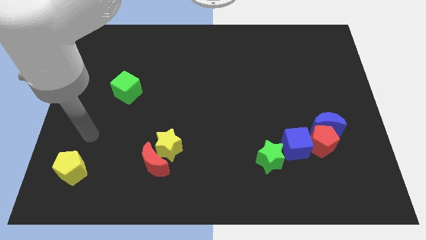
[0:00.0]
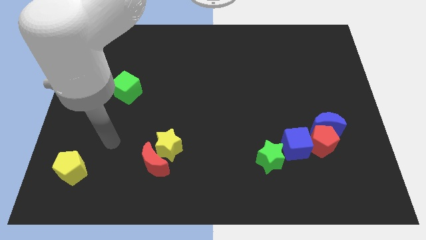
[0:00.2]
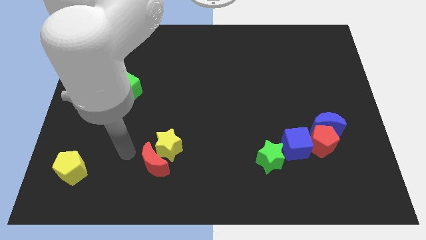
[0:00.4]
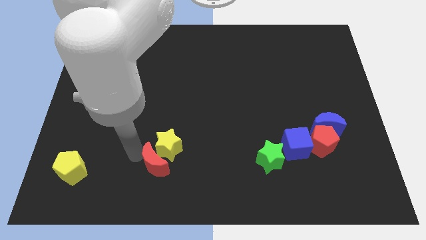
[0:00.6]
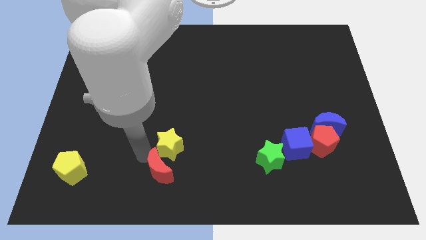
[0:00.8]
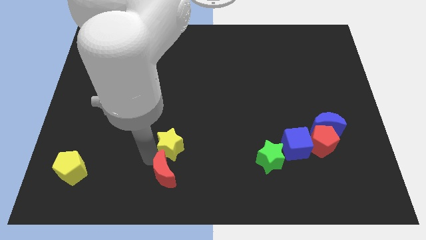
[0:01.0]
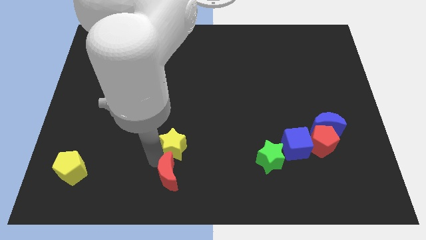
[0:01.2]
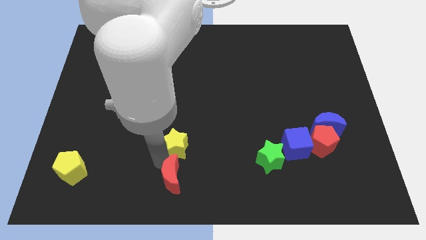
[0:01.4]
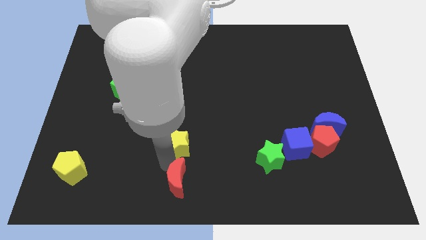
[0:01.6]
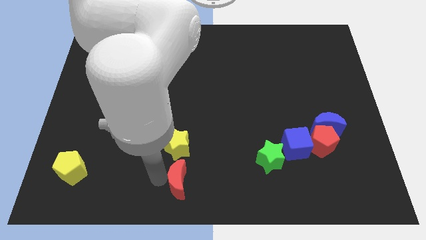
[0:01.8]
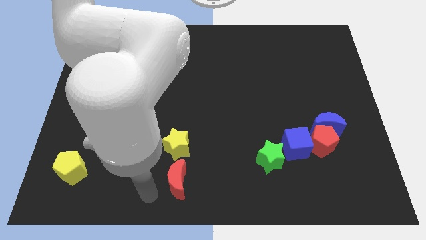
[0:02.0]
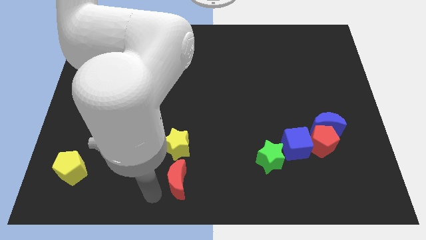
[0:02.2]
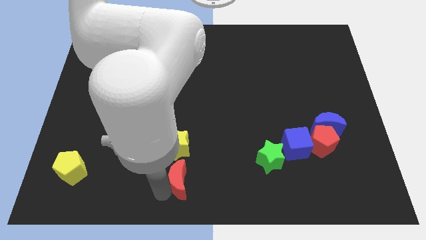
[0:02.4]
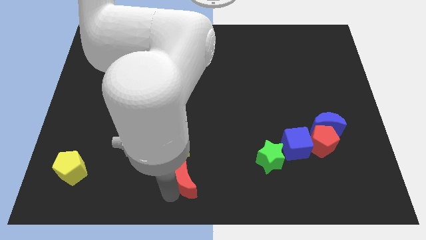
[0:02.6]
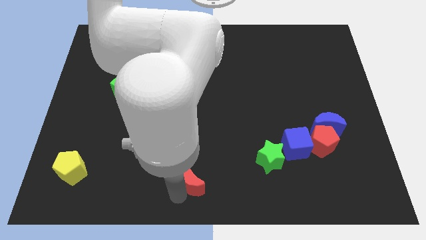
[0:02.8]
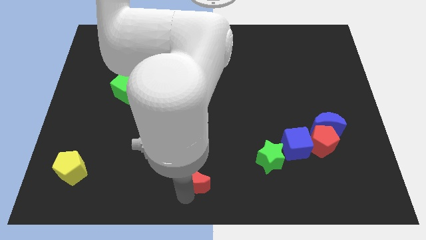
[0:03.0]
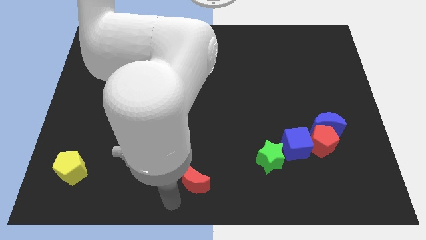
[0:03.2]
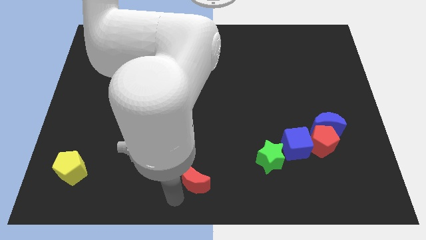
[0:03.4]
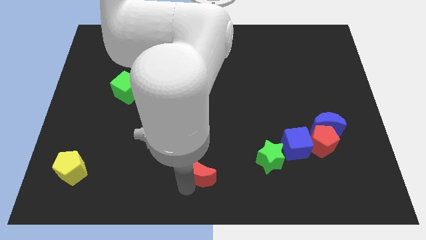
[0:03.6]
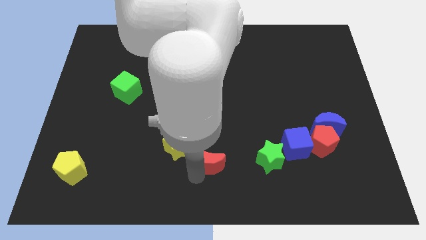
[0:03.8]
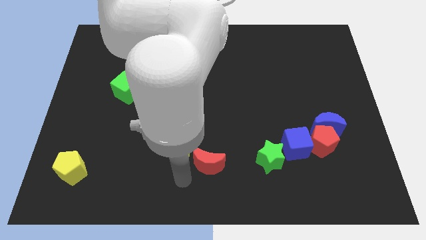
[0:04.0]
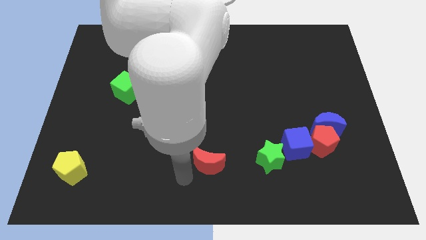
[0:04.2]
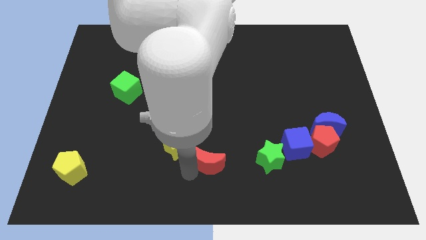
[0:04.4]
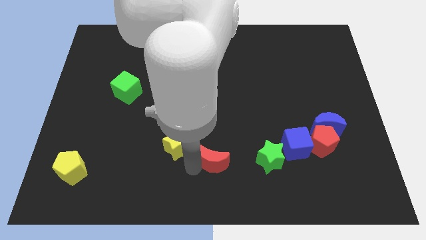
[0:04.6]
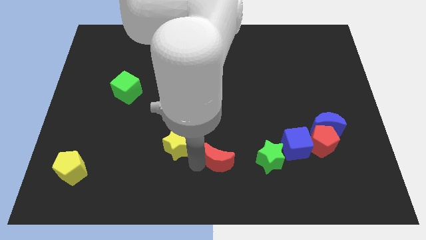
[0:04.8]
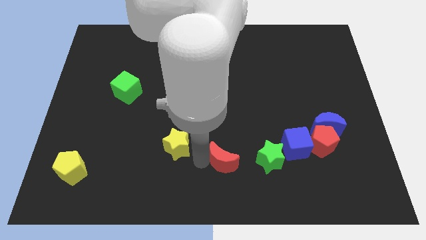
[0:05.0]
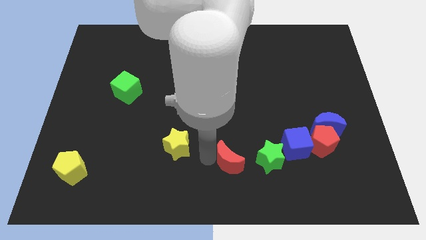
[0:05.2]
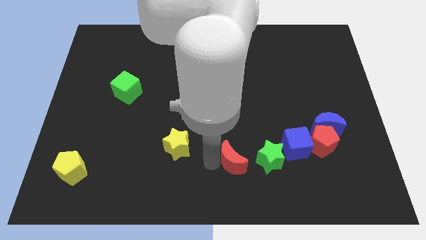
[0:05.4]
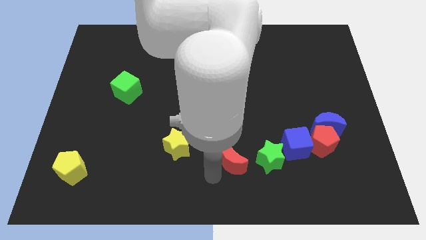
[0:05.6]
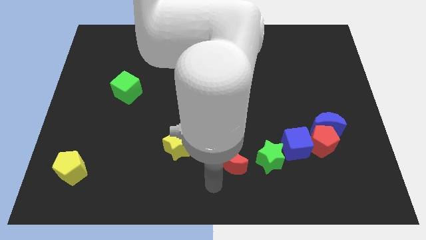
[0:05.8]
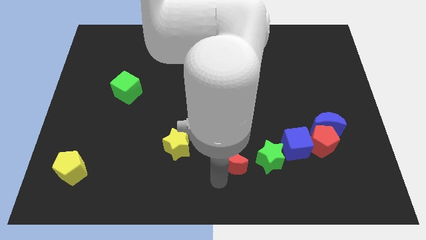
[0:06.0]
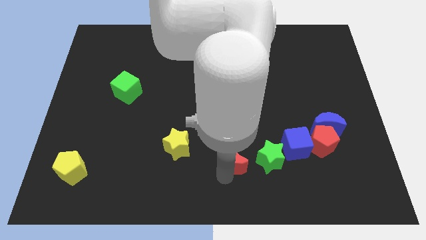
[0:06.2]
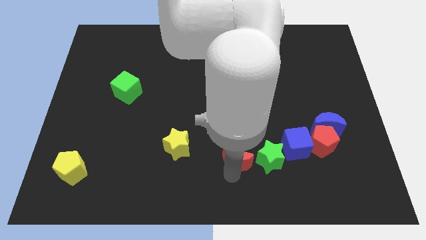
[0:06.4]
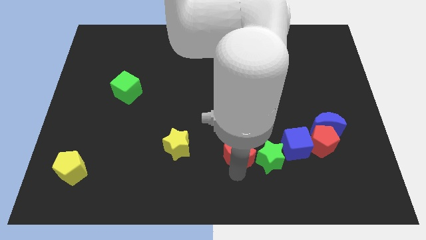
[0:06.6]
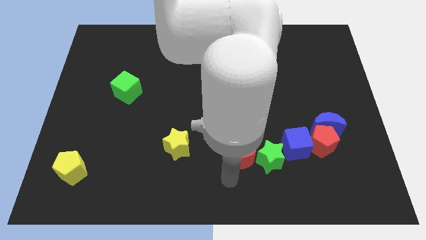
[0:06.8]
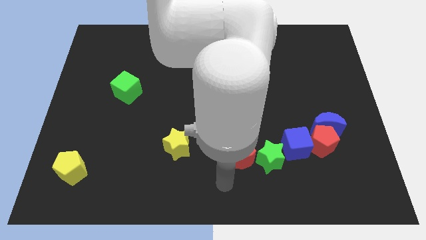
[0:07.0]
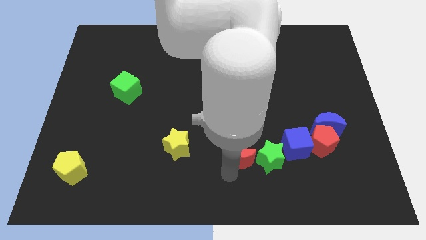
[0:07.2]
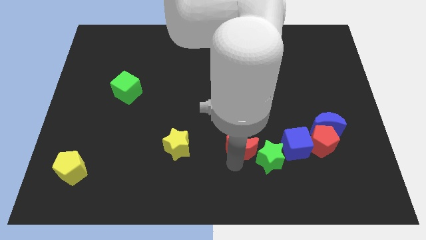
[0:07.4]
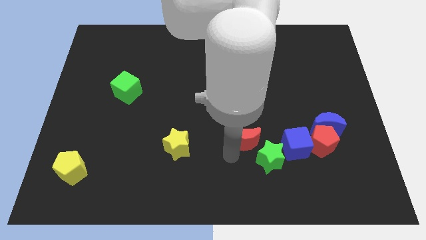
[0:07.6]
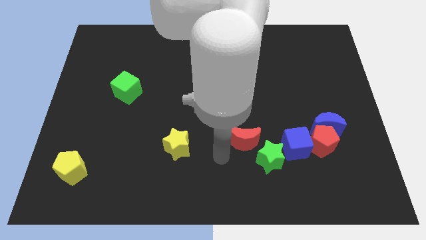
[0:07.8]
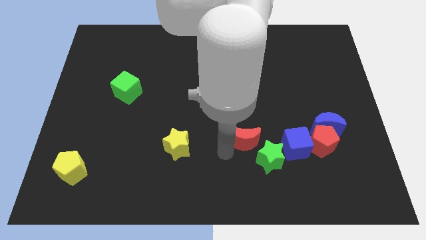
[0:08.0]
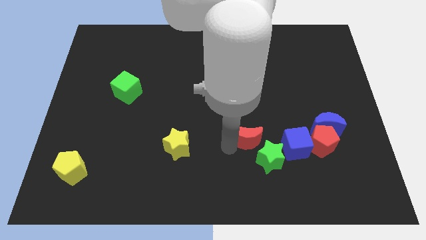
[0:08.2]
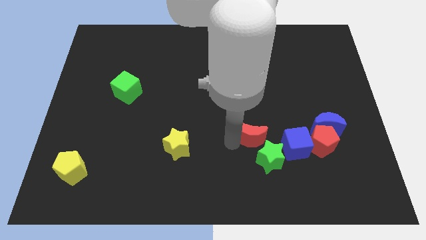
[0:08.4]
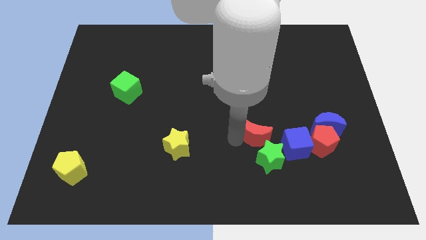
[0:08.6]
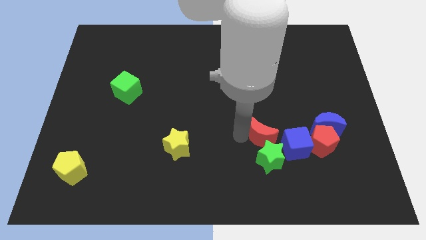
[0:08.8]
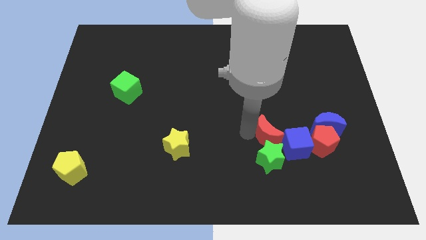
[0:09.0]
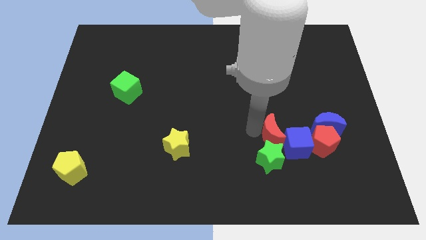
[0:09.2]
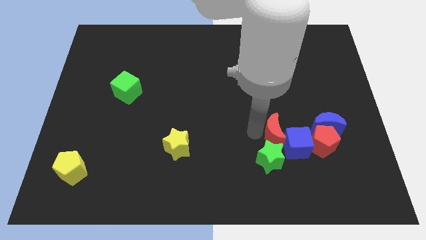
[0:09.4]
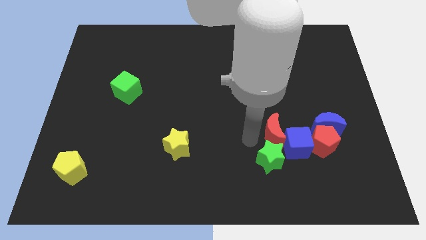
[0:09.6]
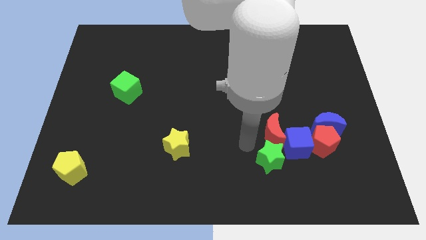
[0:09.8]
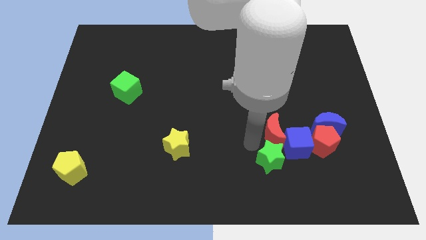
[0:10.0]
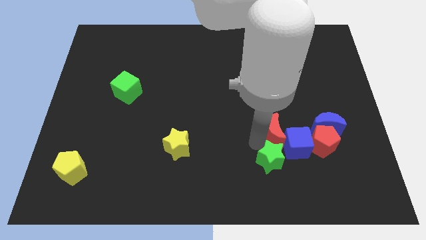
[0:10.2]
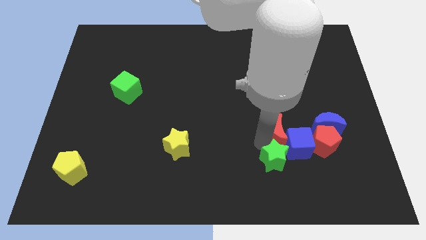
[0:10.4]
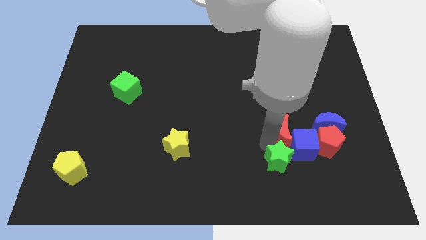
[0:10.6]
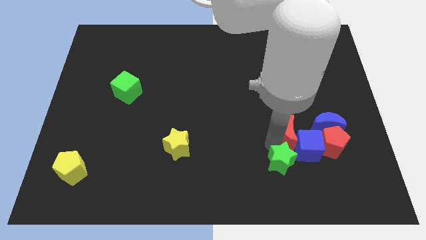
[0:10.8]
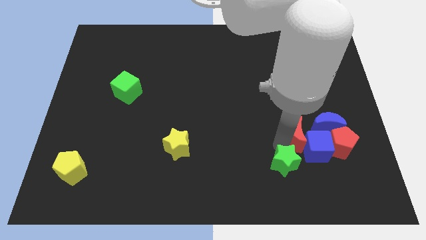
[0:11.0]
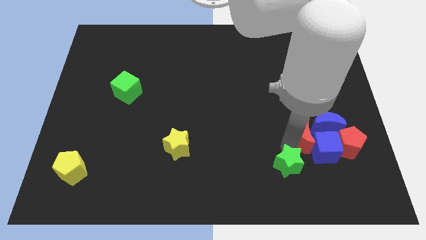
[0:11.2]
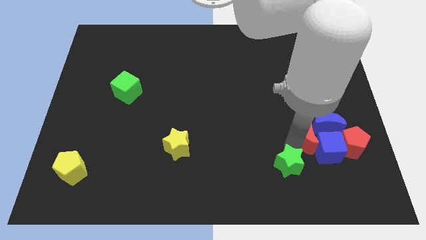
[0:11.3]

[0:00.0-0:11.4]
put the red moon next to the blue moon

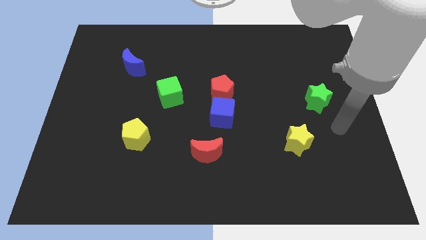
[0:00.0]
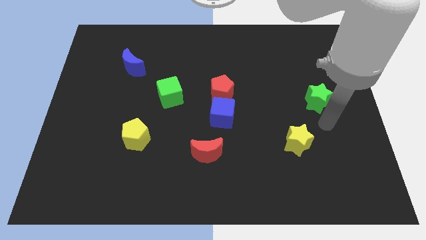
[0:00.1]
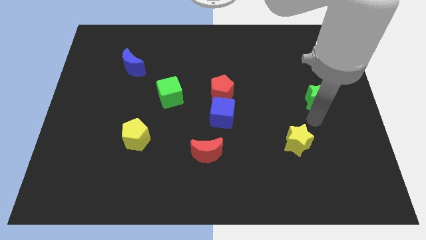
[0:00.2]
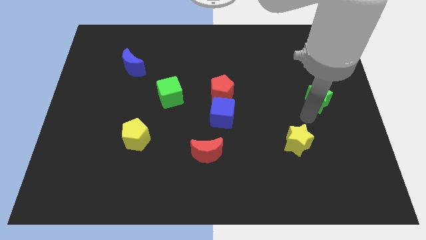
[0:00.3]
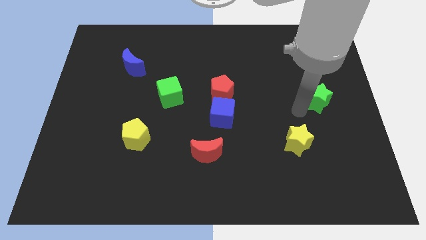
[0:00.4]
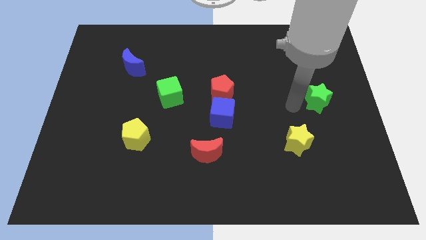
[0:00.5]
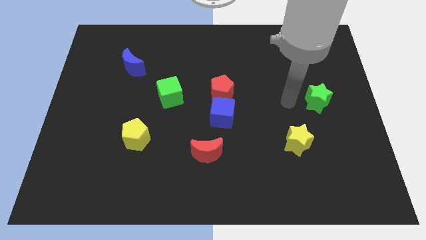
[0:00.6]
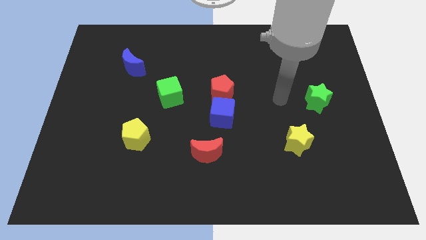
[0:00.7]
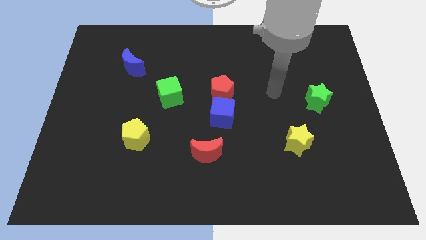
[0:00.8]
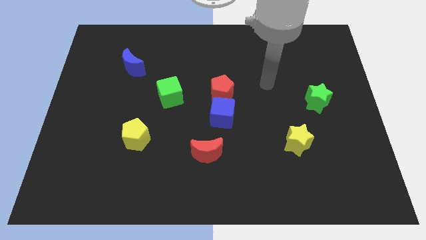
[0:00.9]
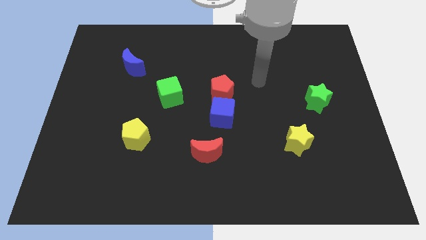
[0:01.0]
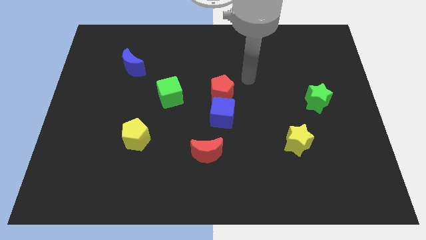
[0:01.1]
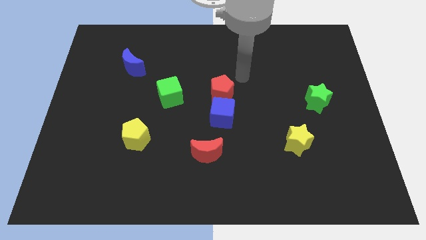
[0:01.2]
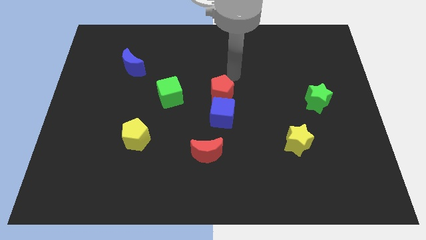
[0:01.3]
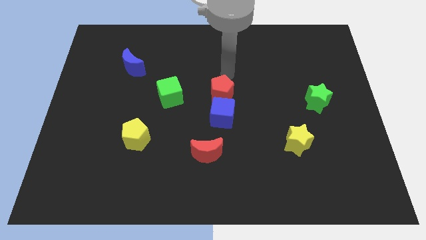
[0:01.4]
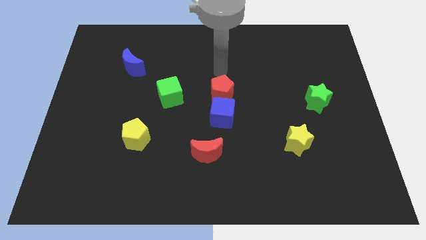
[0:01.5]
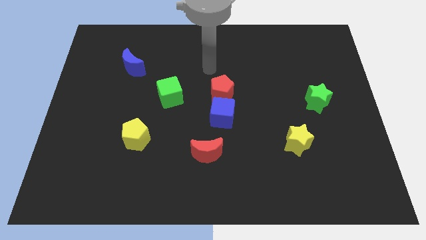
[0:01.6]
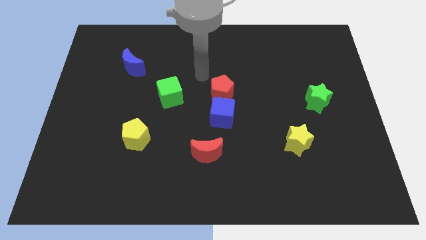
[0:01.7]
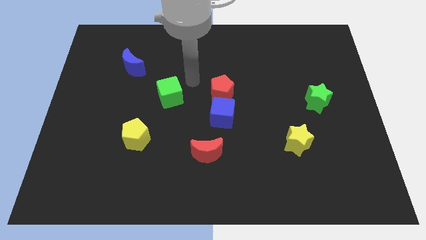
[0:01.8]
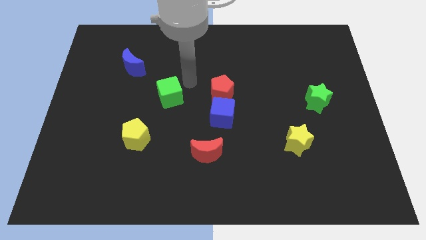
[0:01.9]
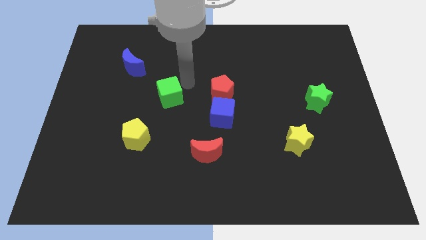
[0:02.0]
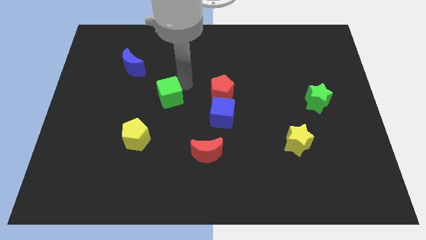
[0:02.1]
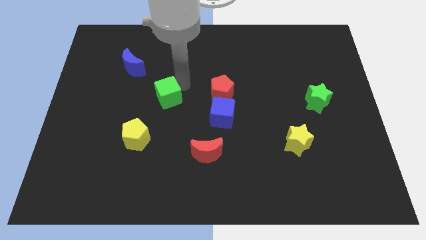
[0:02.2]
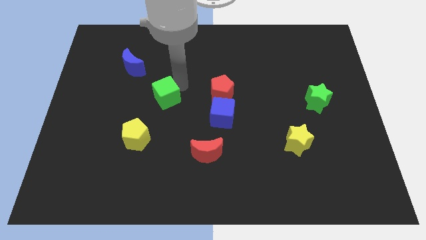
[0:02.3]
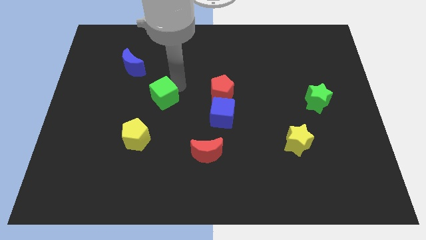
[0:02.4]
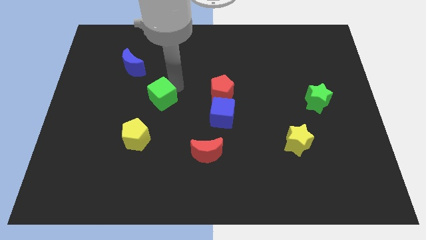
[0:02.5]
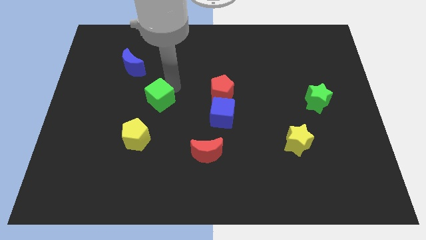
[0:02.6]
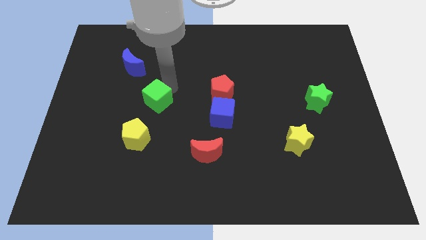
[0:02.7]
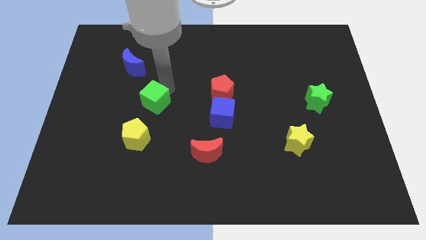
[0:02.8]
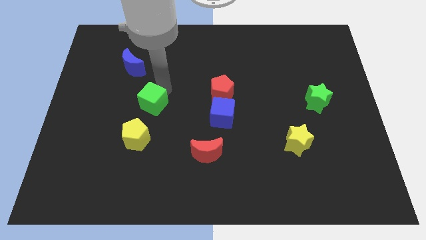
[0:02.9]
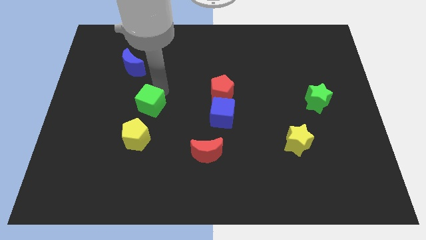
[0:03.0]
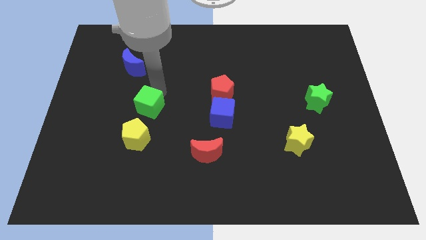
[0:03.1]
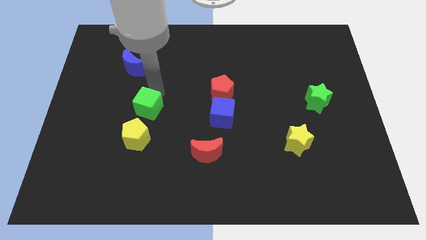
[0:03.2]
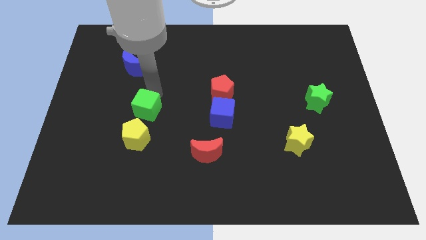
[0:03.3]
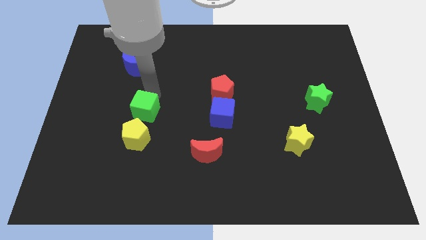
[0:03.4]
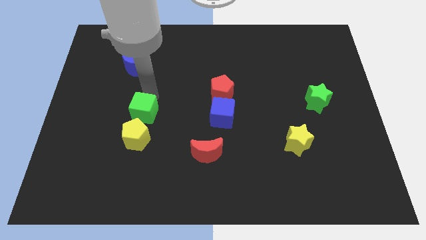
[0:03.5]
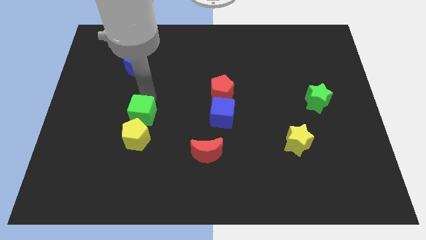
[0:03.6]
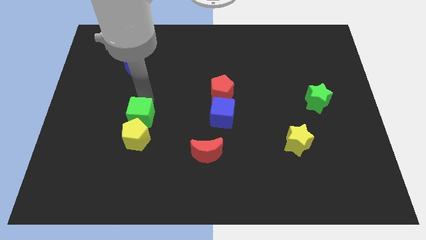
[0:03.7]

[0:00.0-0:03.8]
put the green cube to the yellow pentagon
